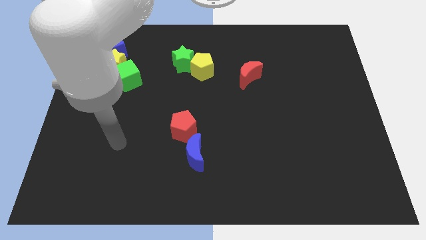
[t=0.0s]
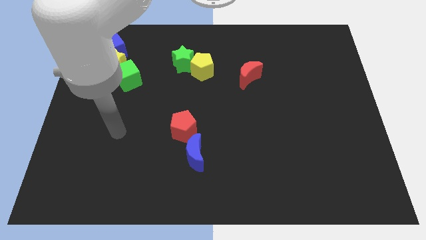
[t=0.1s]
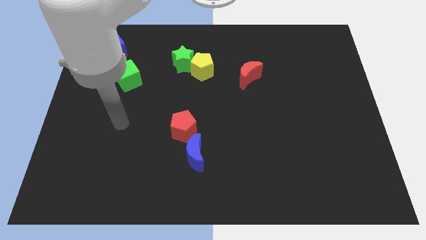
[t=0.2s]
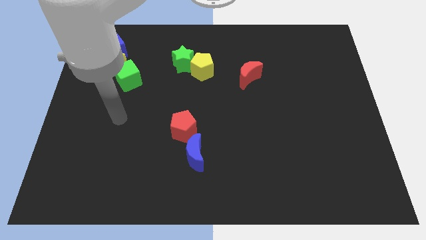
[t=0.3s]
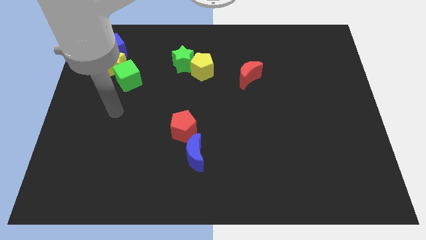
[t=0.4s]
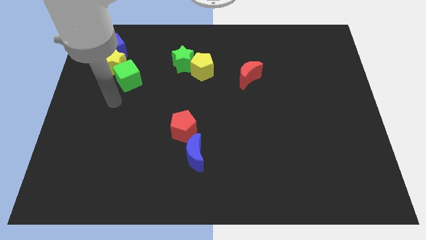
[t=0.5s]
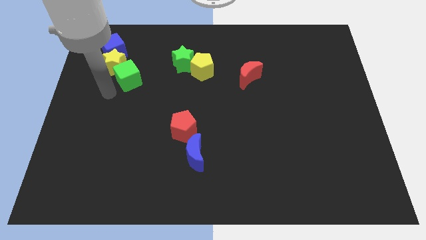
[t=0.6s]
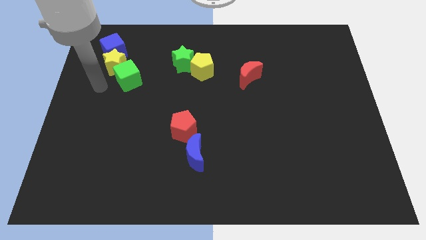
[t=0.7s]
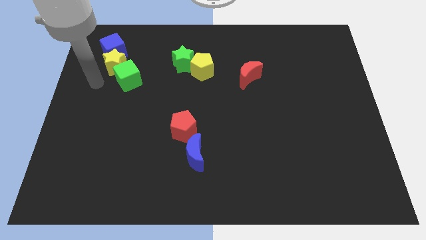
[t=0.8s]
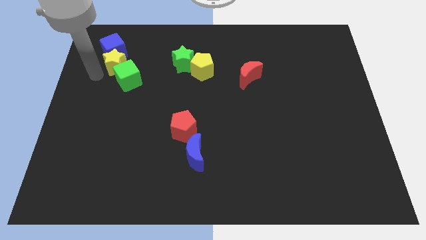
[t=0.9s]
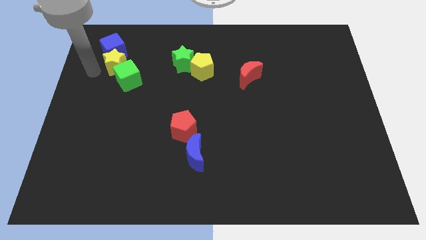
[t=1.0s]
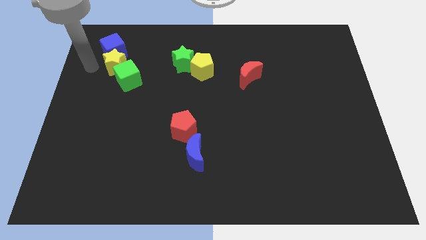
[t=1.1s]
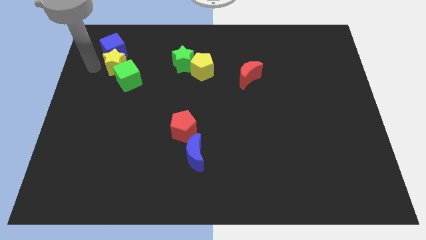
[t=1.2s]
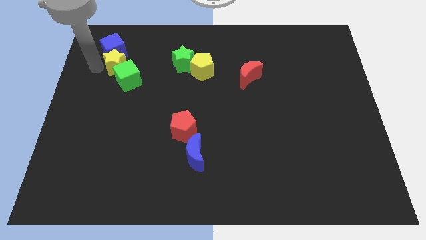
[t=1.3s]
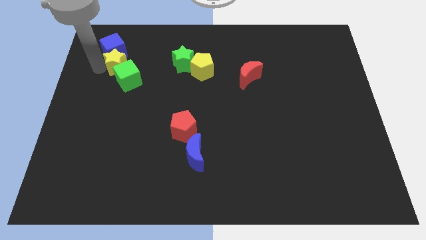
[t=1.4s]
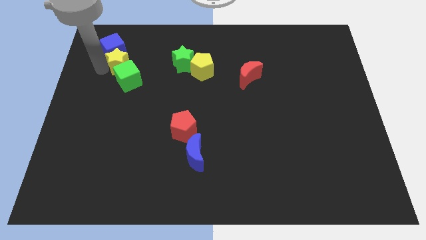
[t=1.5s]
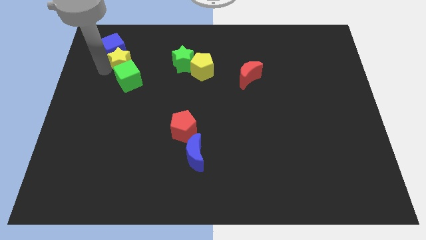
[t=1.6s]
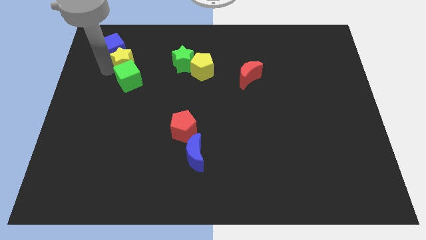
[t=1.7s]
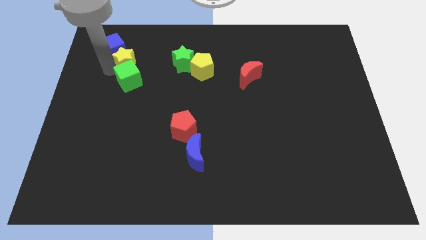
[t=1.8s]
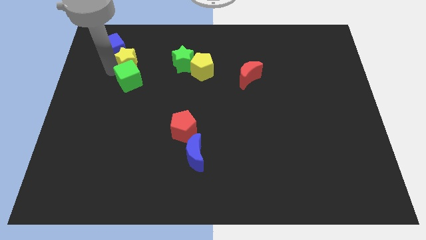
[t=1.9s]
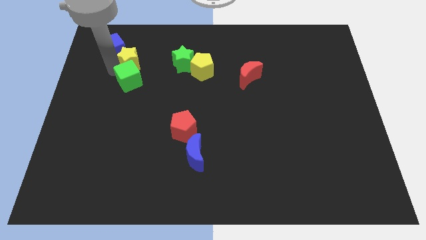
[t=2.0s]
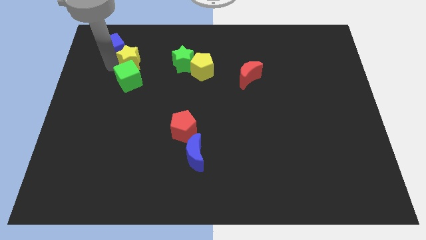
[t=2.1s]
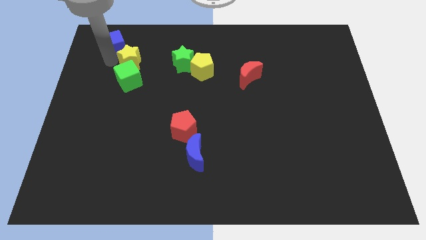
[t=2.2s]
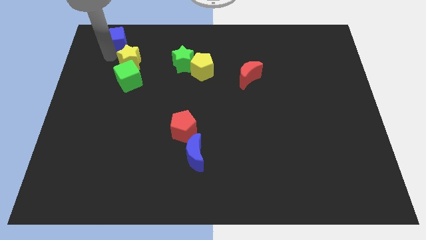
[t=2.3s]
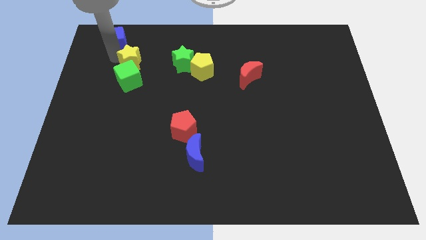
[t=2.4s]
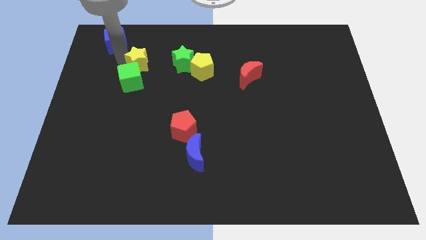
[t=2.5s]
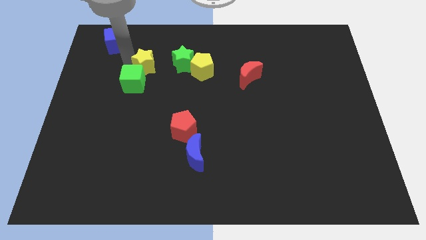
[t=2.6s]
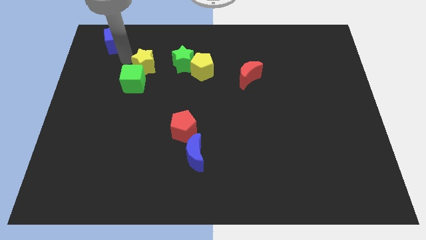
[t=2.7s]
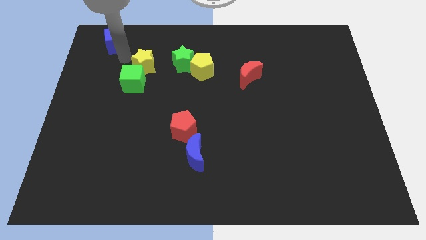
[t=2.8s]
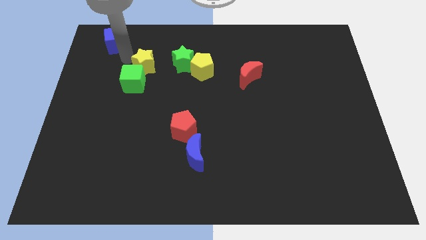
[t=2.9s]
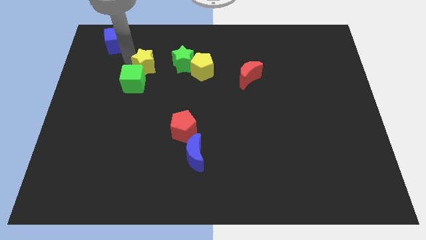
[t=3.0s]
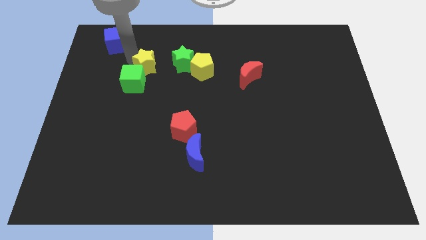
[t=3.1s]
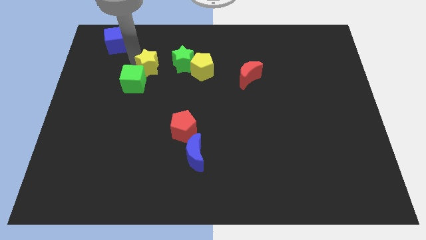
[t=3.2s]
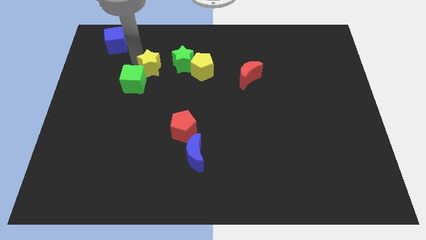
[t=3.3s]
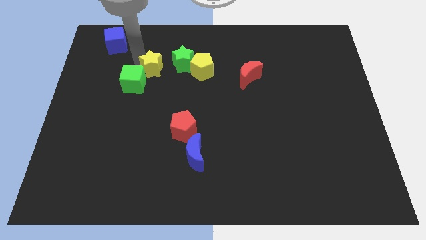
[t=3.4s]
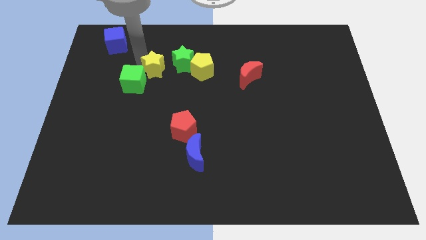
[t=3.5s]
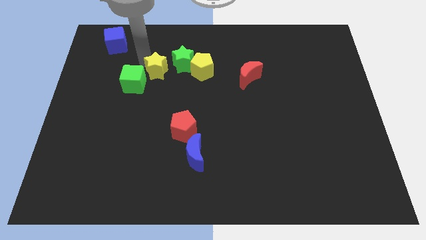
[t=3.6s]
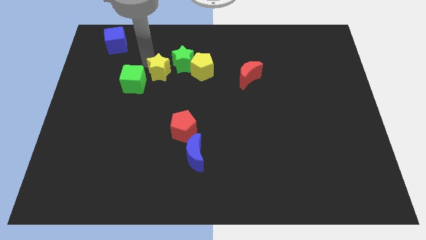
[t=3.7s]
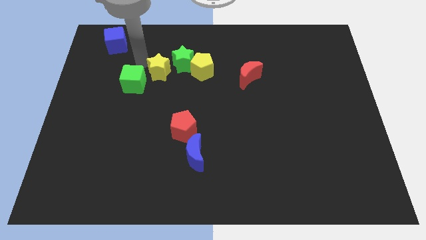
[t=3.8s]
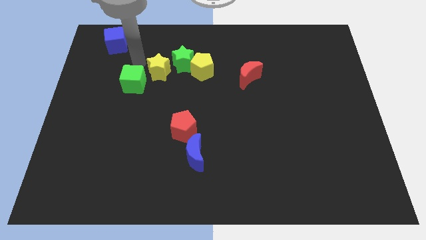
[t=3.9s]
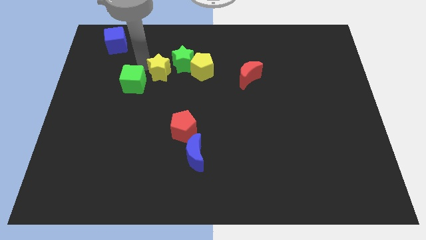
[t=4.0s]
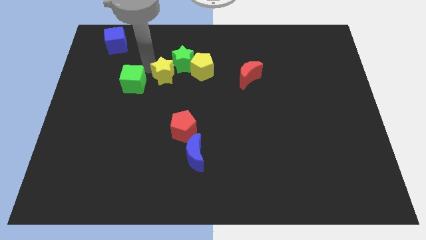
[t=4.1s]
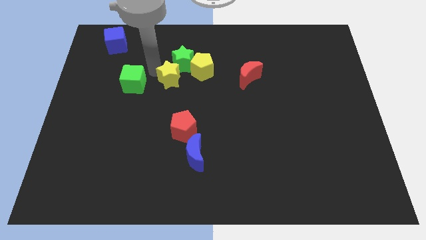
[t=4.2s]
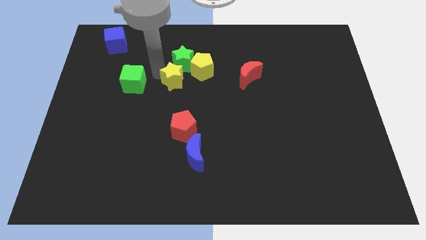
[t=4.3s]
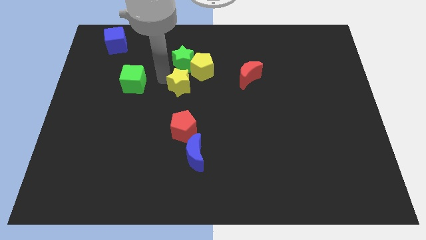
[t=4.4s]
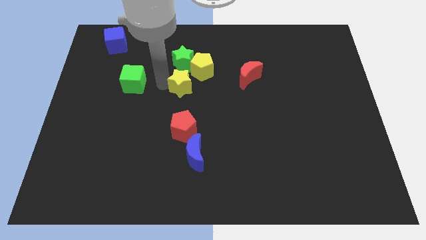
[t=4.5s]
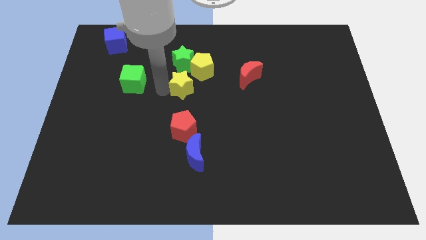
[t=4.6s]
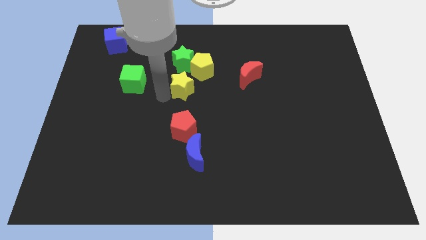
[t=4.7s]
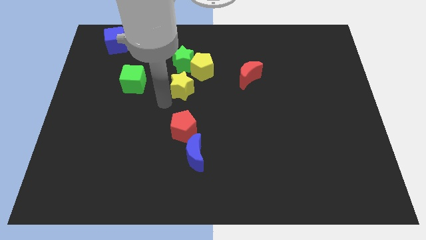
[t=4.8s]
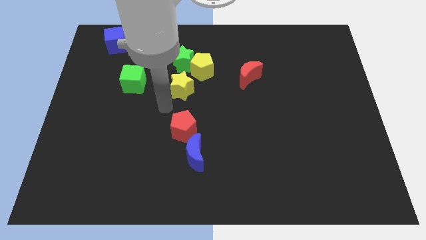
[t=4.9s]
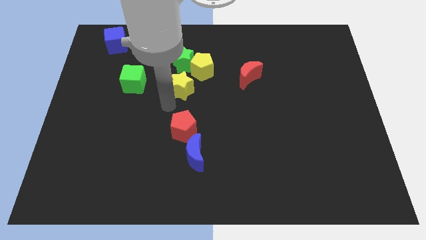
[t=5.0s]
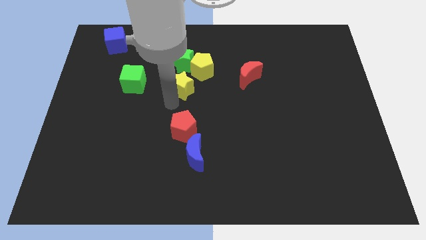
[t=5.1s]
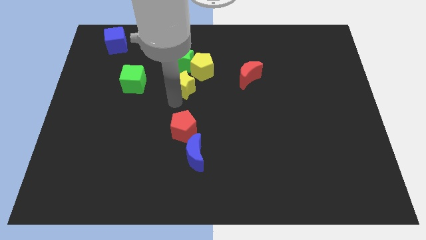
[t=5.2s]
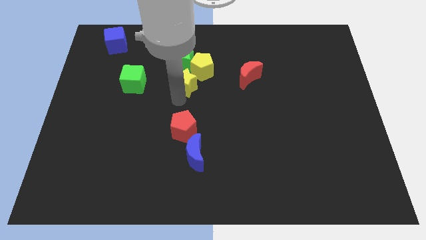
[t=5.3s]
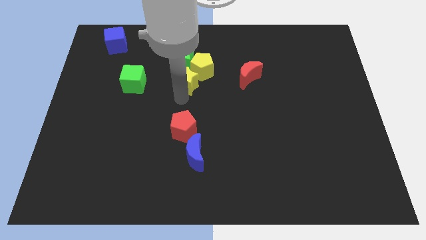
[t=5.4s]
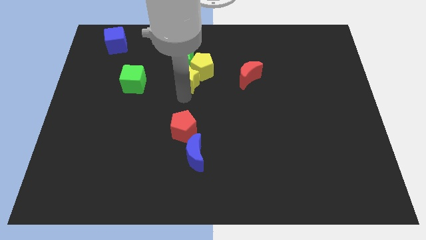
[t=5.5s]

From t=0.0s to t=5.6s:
put the yellow star to the yellow pentagon

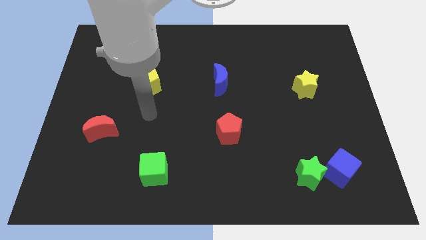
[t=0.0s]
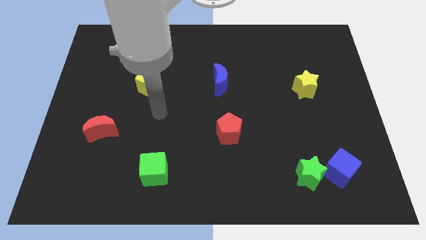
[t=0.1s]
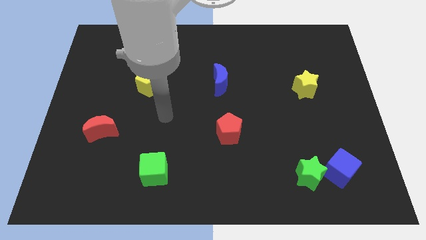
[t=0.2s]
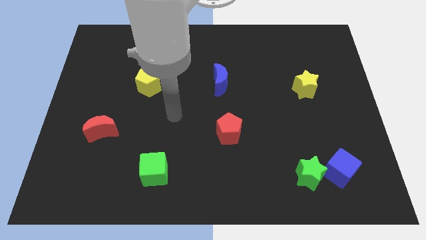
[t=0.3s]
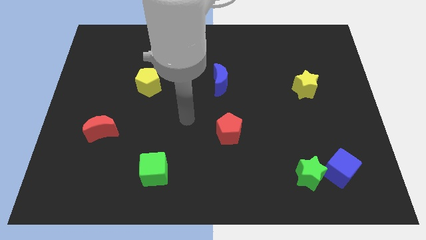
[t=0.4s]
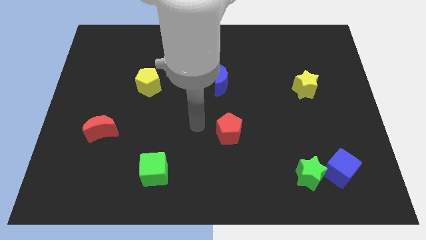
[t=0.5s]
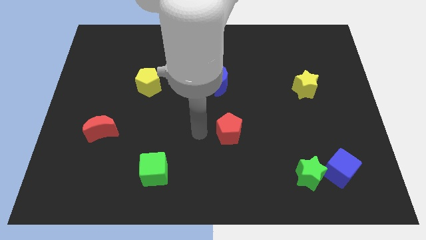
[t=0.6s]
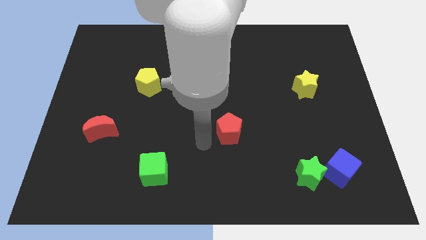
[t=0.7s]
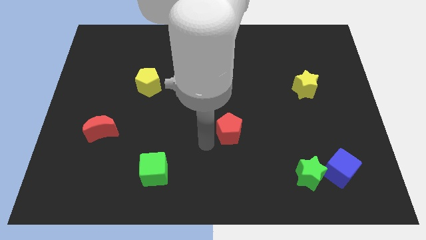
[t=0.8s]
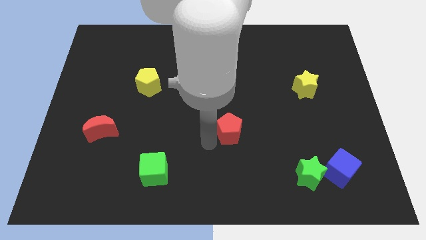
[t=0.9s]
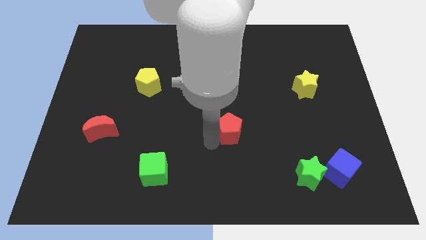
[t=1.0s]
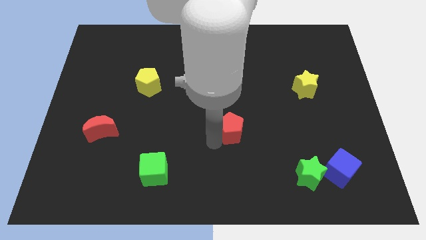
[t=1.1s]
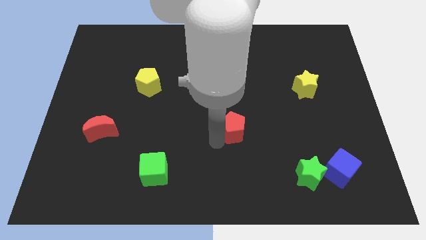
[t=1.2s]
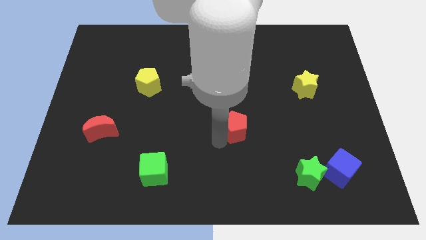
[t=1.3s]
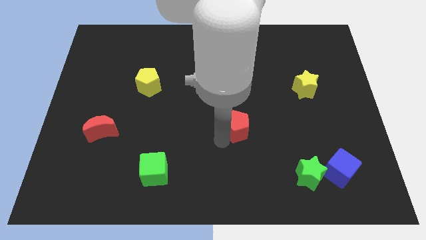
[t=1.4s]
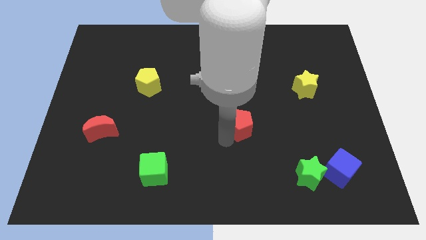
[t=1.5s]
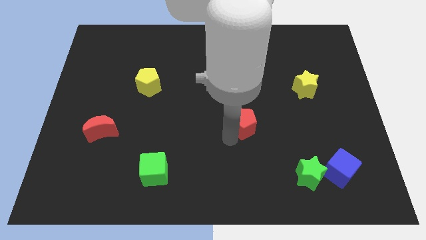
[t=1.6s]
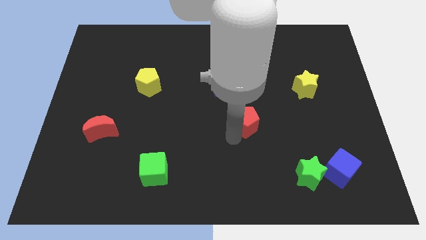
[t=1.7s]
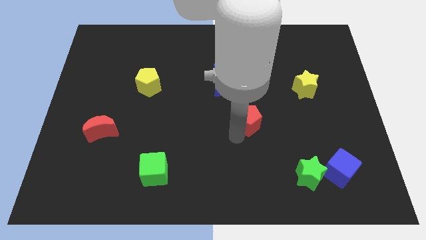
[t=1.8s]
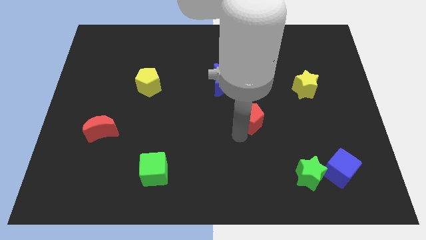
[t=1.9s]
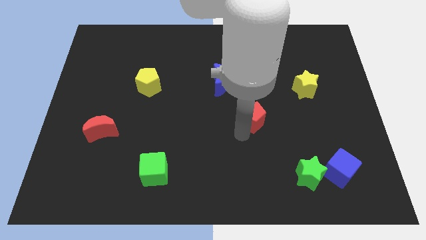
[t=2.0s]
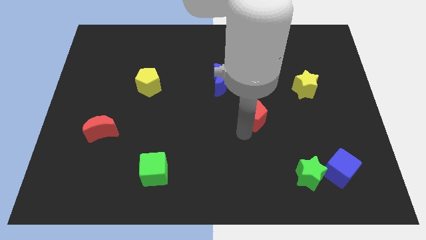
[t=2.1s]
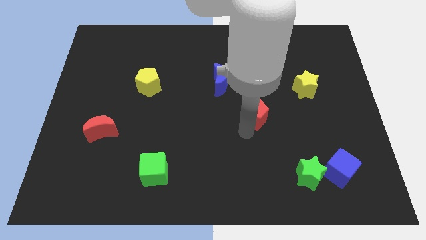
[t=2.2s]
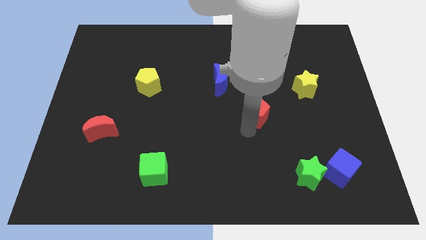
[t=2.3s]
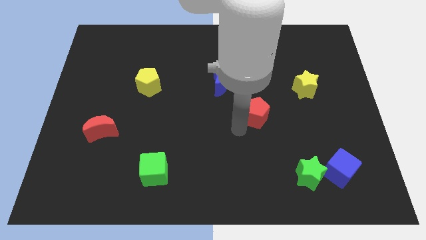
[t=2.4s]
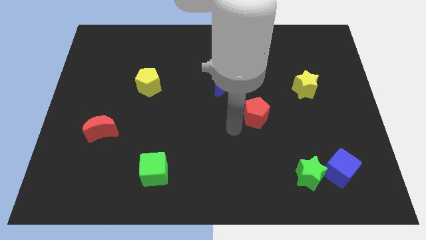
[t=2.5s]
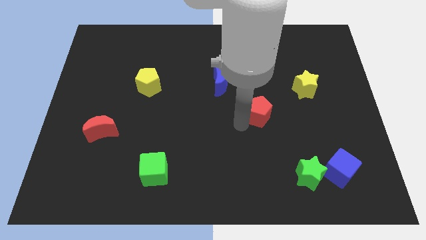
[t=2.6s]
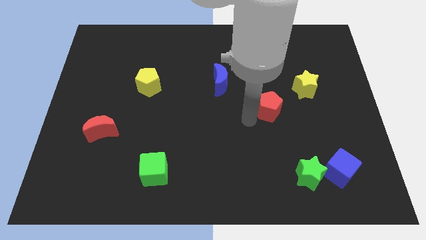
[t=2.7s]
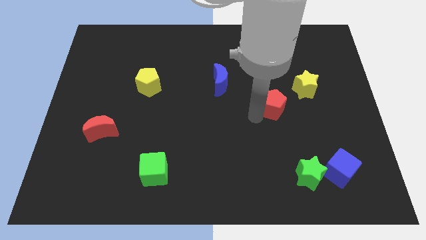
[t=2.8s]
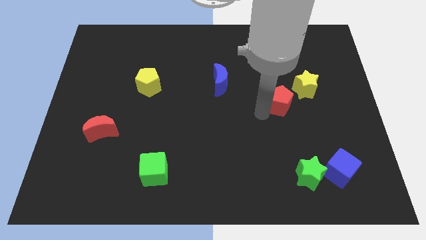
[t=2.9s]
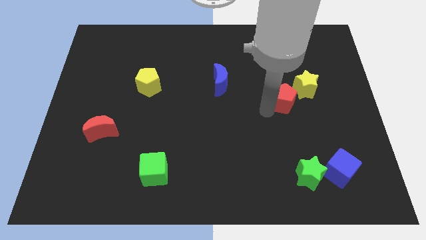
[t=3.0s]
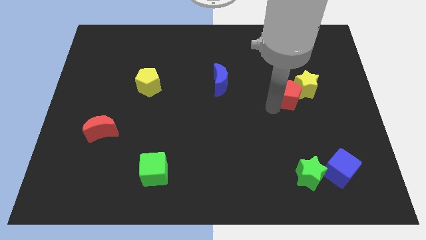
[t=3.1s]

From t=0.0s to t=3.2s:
slide the red pentagon next to the yellow star
